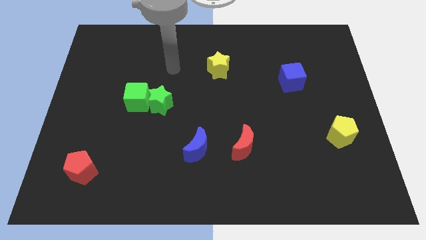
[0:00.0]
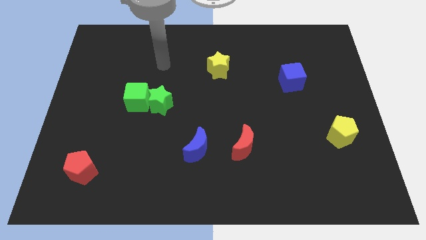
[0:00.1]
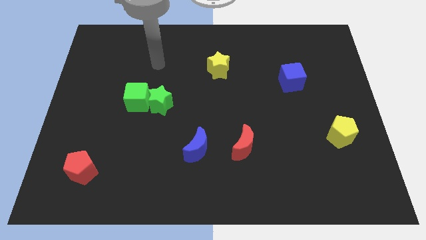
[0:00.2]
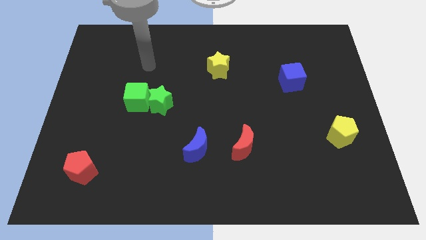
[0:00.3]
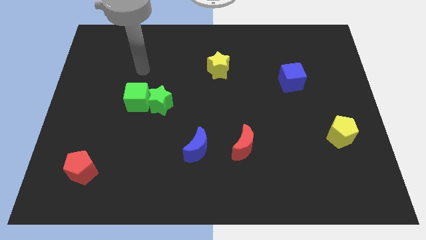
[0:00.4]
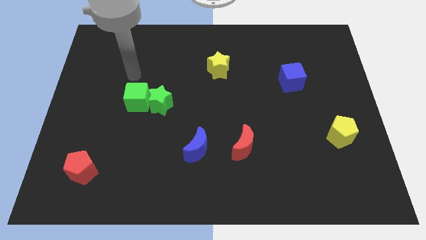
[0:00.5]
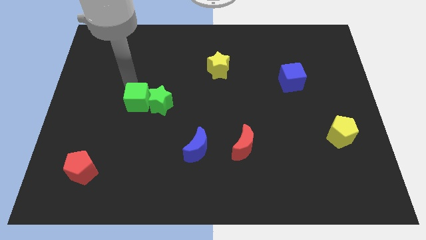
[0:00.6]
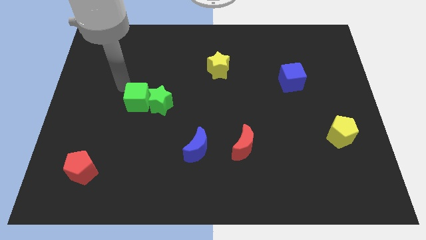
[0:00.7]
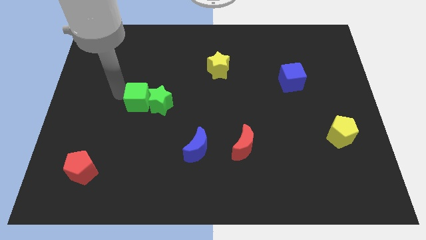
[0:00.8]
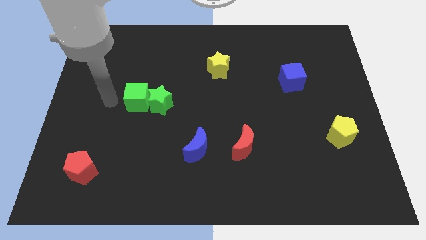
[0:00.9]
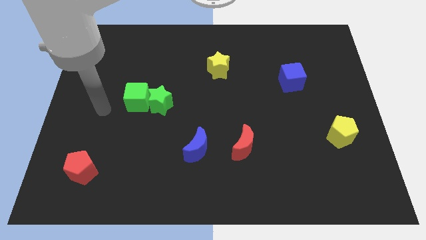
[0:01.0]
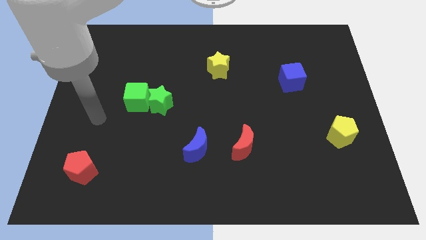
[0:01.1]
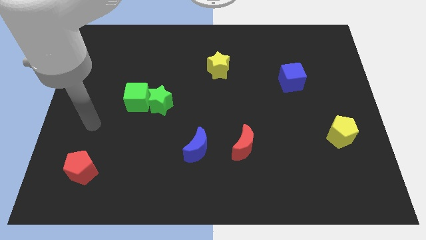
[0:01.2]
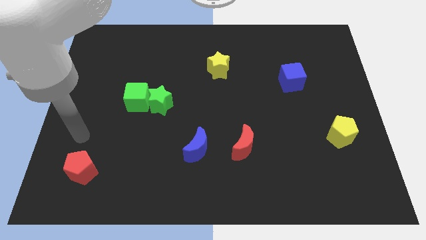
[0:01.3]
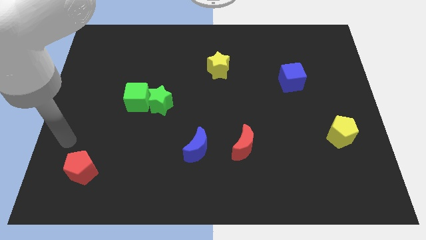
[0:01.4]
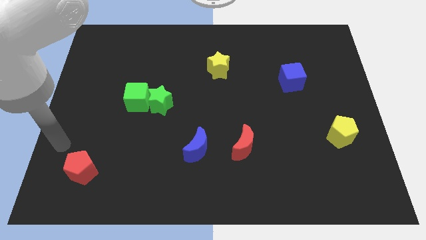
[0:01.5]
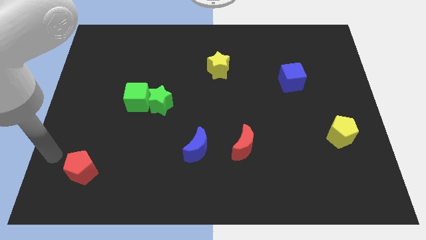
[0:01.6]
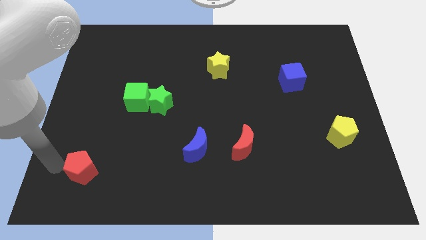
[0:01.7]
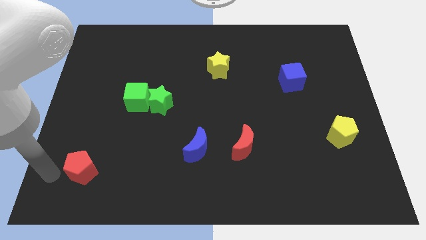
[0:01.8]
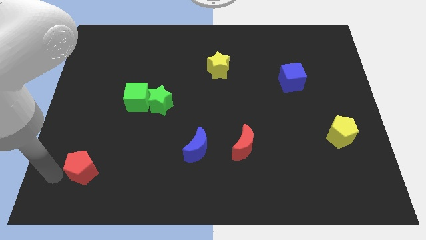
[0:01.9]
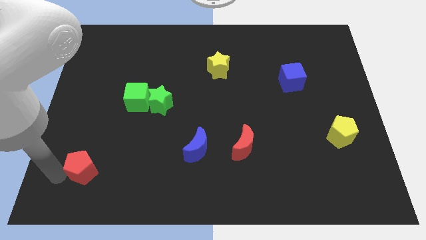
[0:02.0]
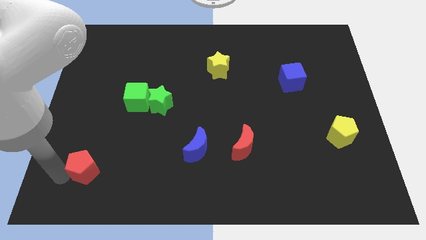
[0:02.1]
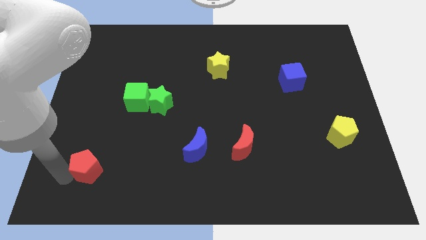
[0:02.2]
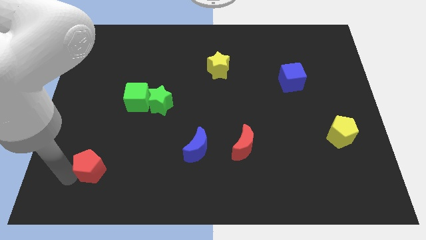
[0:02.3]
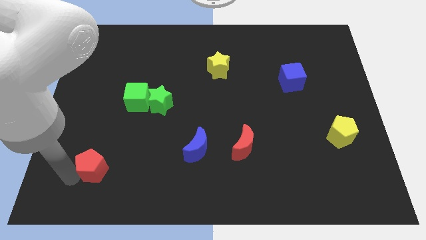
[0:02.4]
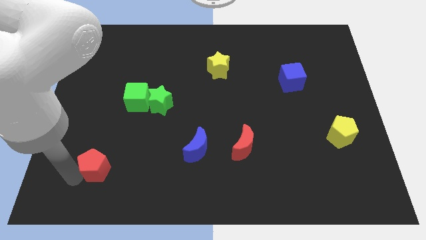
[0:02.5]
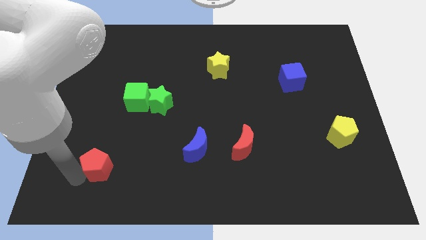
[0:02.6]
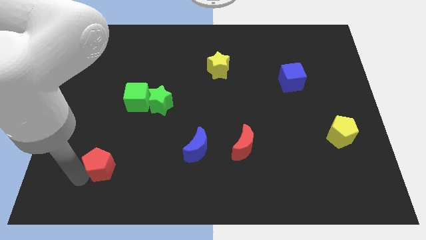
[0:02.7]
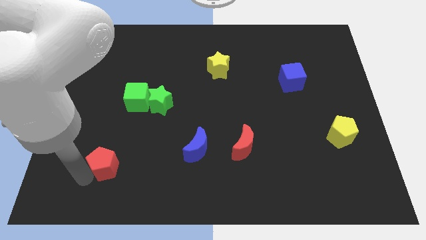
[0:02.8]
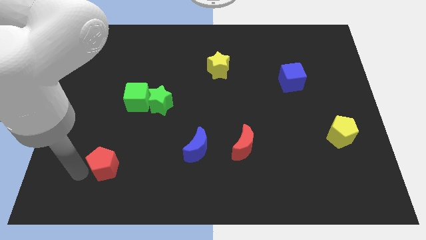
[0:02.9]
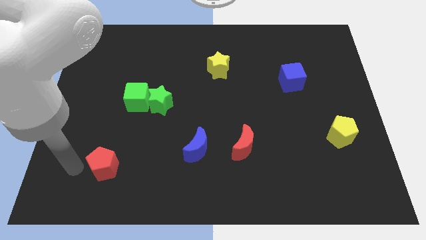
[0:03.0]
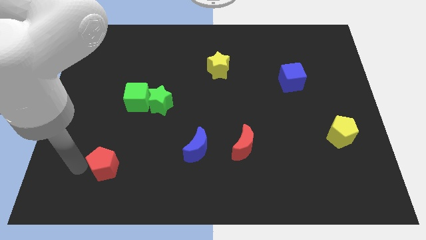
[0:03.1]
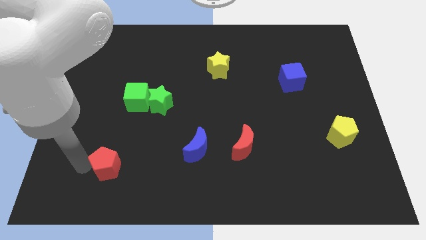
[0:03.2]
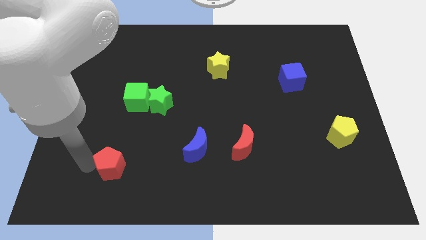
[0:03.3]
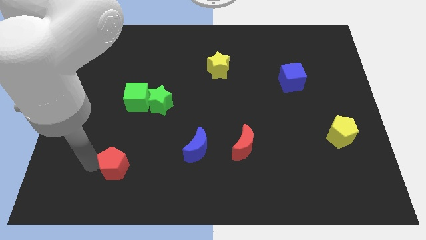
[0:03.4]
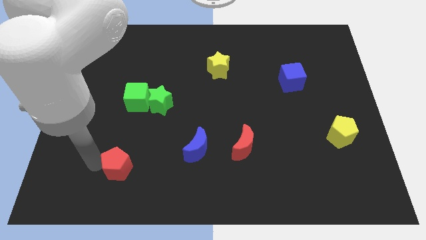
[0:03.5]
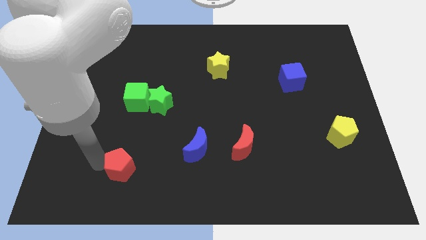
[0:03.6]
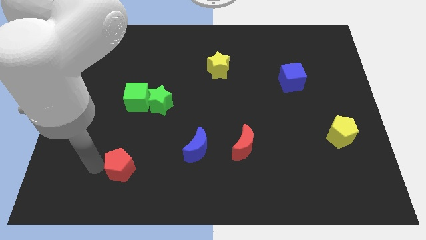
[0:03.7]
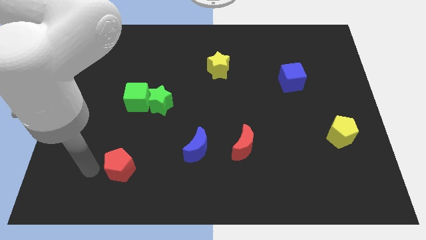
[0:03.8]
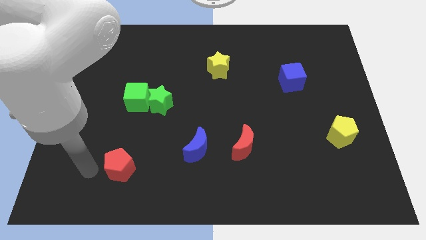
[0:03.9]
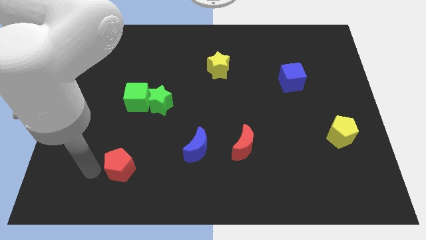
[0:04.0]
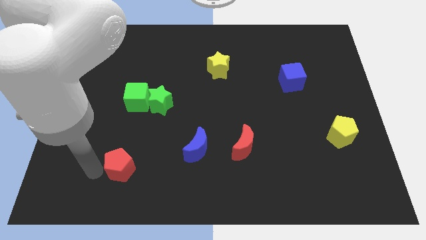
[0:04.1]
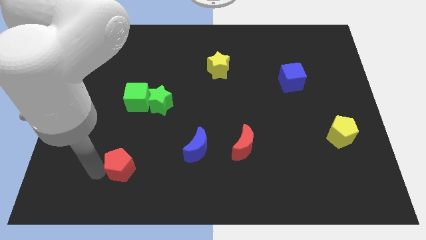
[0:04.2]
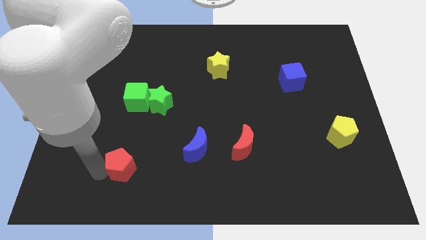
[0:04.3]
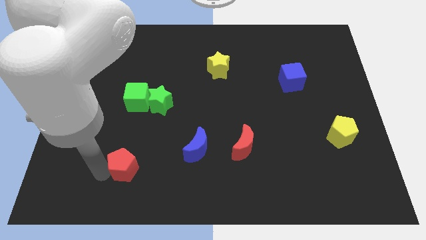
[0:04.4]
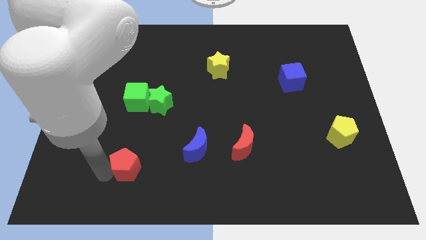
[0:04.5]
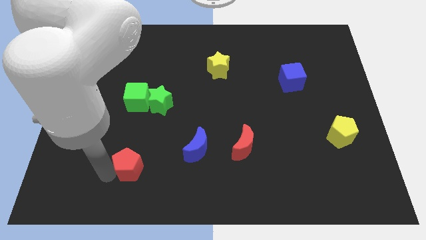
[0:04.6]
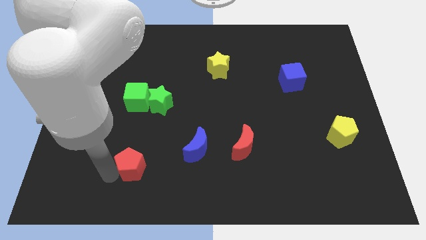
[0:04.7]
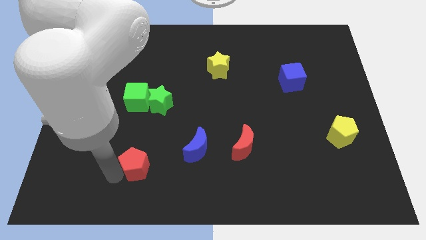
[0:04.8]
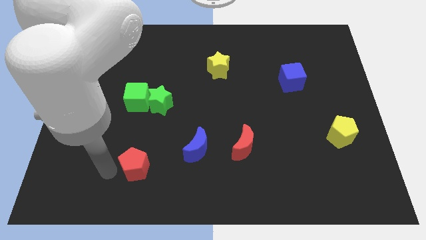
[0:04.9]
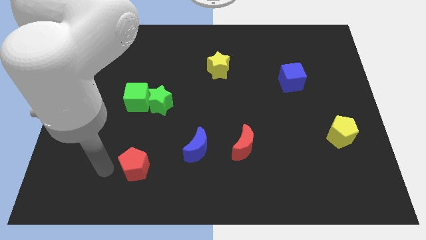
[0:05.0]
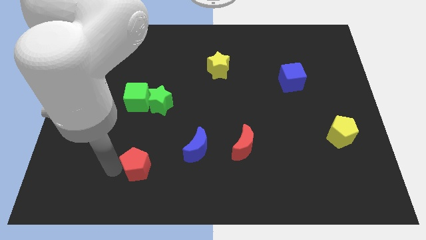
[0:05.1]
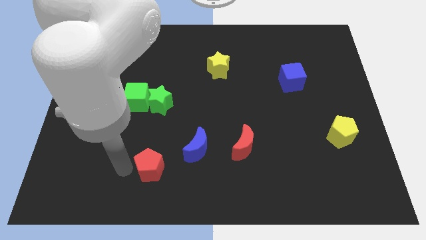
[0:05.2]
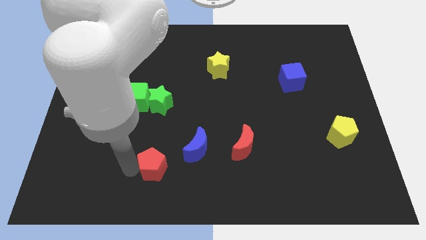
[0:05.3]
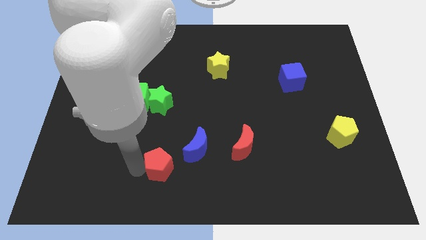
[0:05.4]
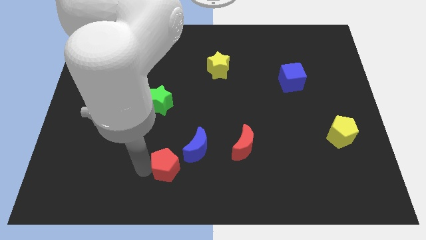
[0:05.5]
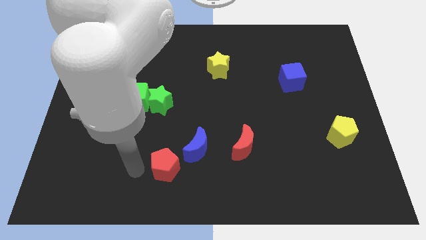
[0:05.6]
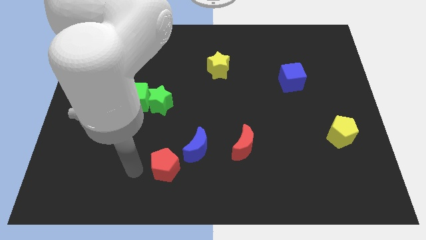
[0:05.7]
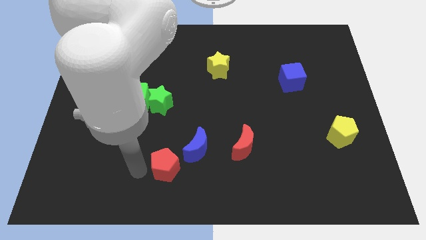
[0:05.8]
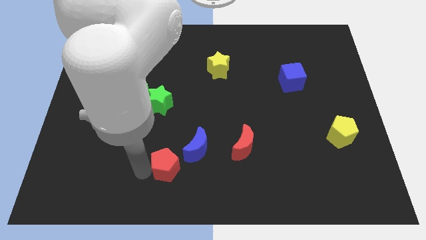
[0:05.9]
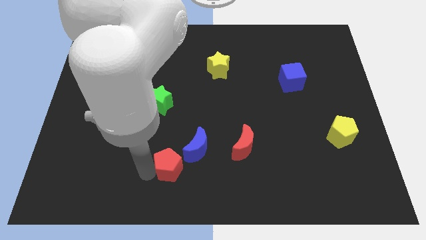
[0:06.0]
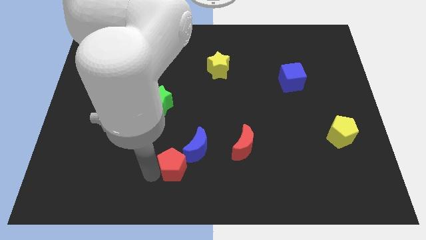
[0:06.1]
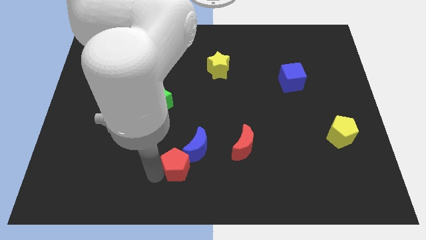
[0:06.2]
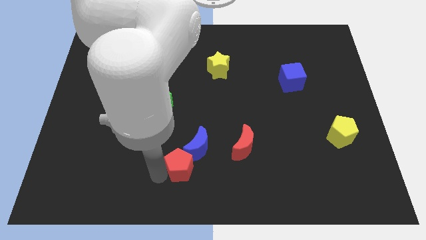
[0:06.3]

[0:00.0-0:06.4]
slide the red pentagon right

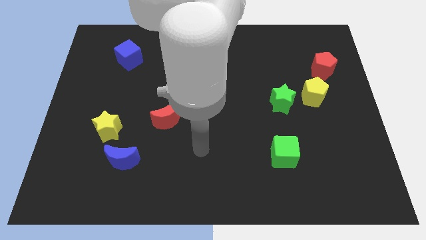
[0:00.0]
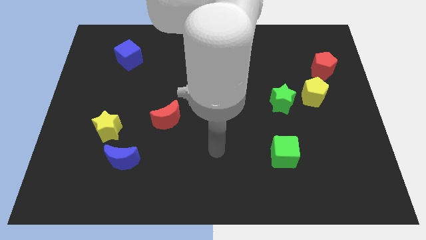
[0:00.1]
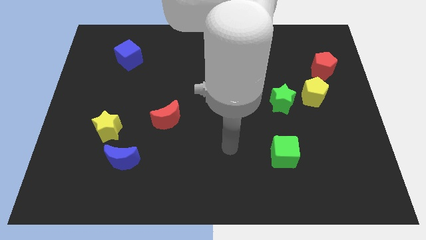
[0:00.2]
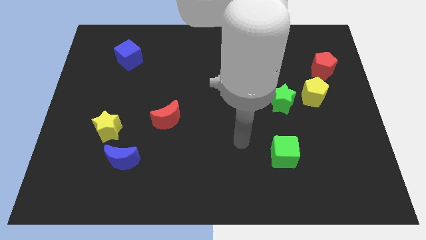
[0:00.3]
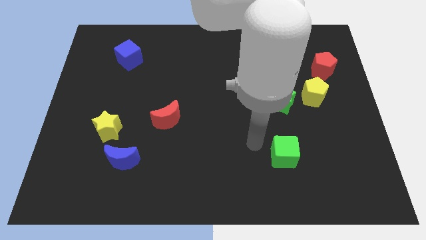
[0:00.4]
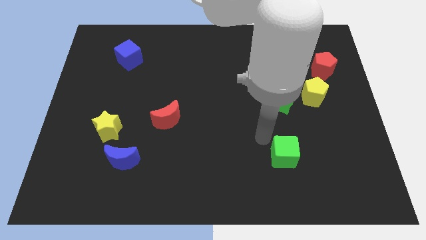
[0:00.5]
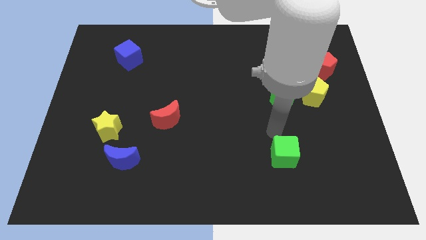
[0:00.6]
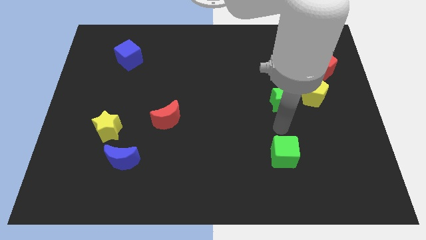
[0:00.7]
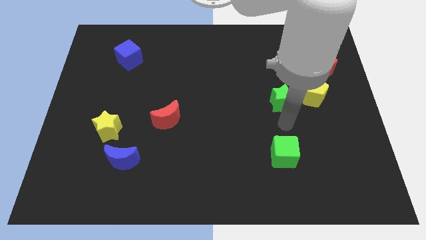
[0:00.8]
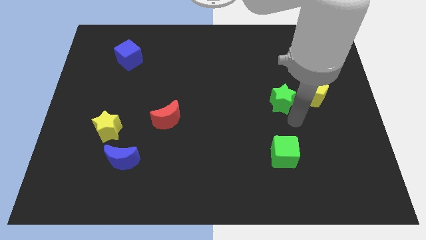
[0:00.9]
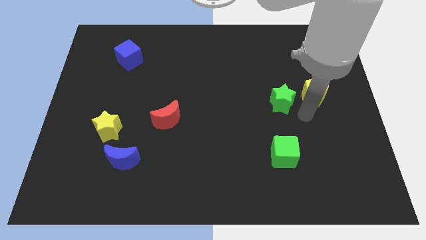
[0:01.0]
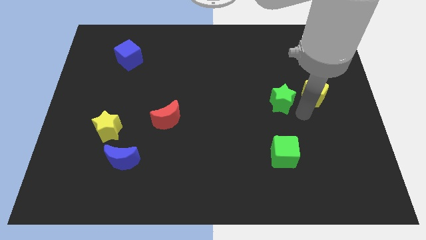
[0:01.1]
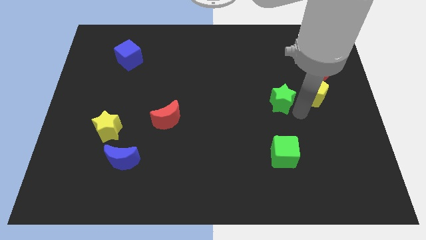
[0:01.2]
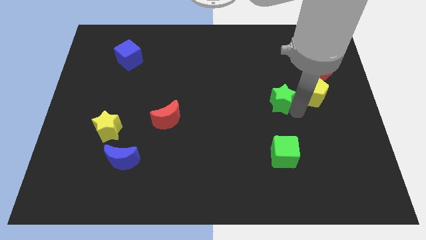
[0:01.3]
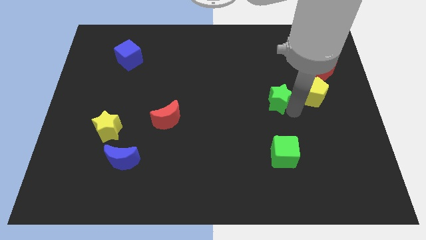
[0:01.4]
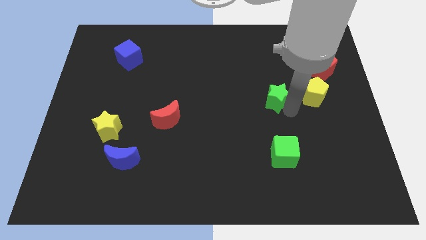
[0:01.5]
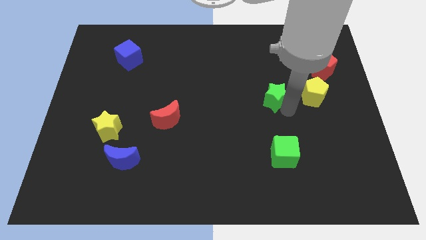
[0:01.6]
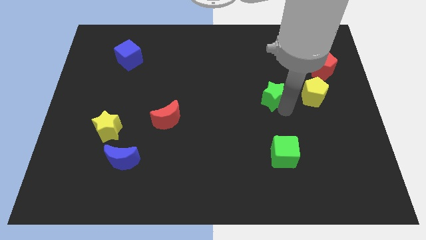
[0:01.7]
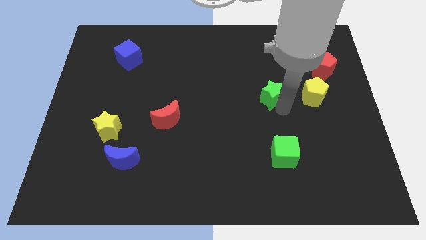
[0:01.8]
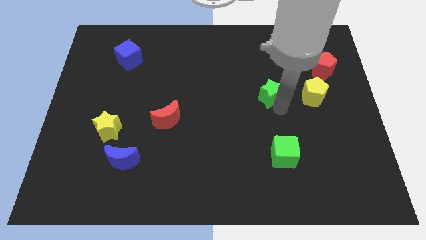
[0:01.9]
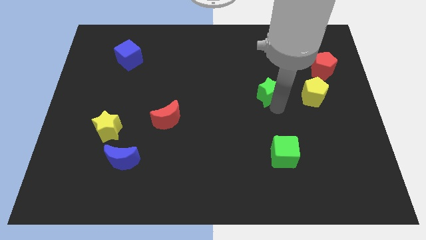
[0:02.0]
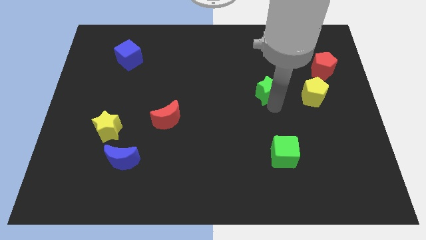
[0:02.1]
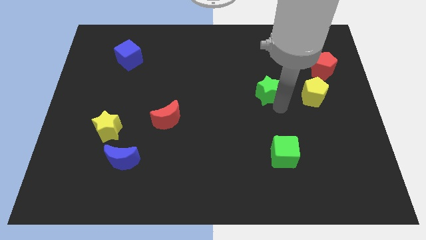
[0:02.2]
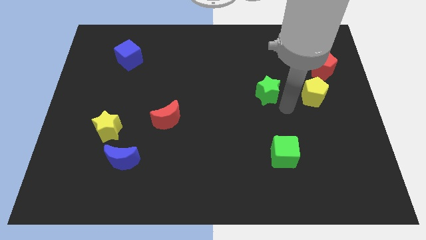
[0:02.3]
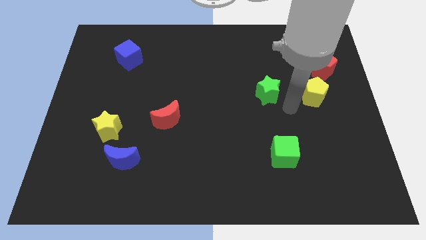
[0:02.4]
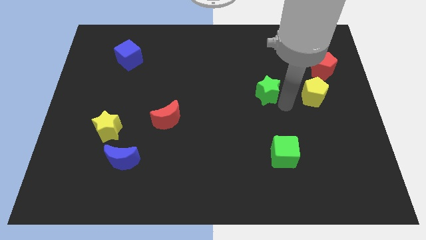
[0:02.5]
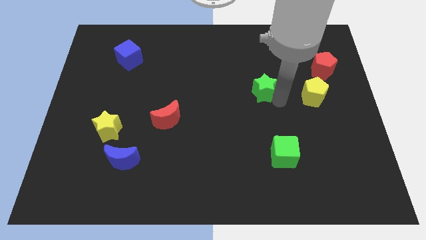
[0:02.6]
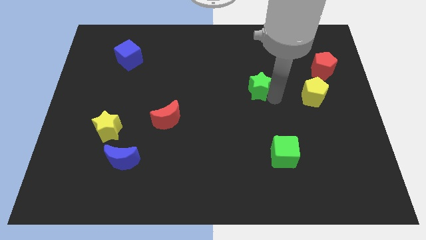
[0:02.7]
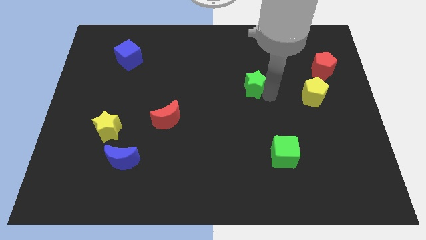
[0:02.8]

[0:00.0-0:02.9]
slide the green star up and then left slightly
